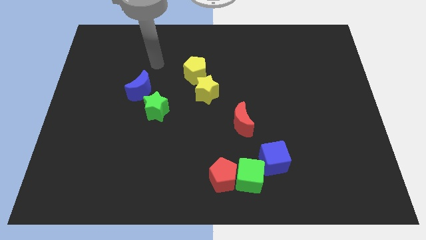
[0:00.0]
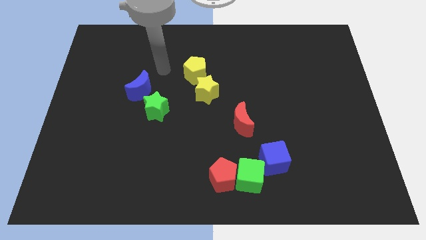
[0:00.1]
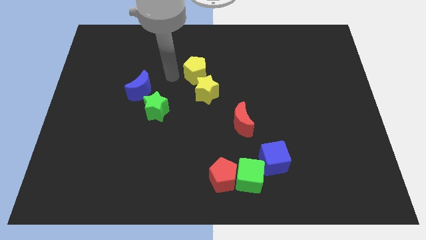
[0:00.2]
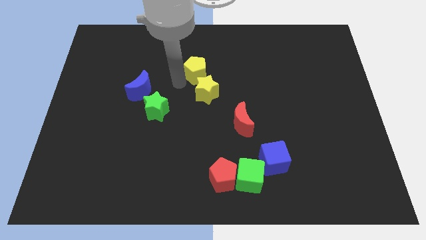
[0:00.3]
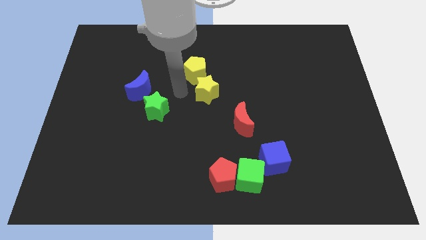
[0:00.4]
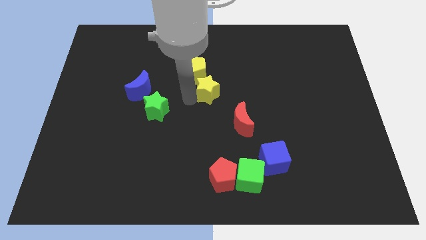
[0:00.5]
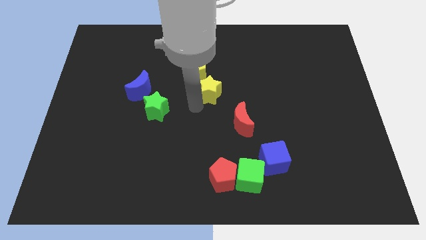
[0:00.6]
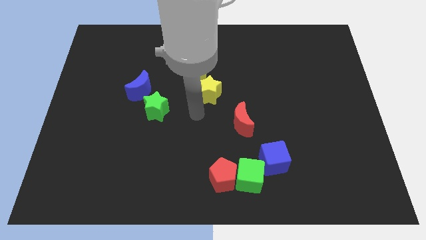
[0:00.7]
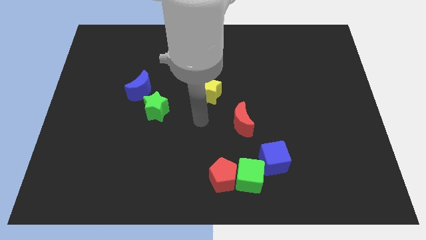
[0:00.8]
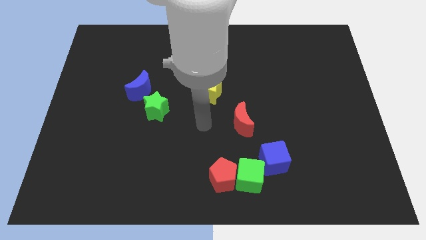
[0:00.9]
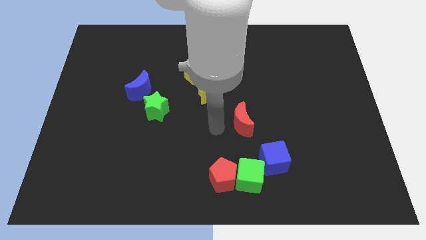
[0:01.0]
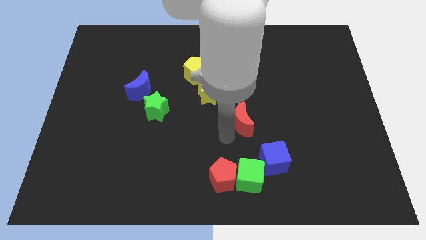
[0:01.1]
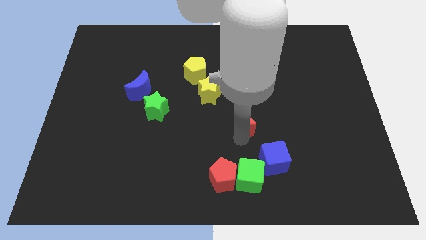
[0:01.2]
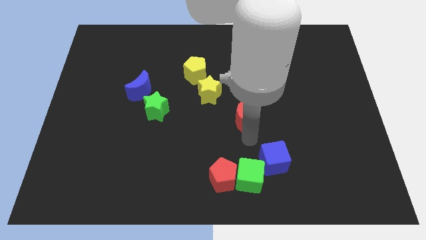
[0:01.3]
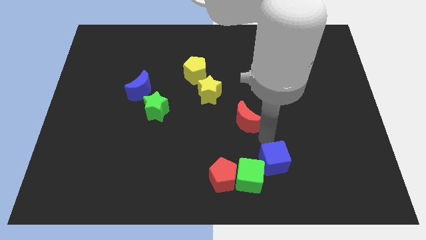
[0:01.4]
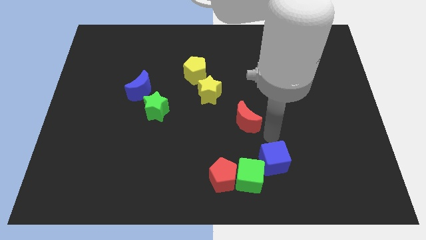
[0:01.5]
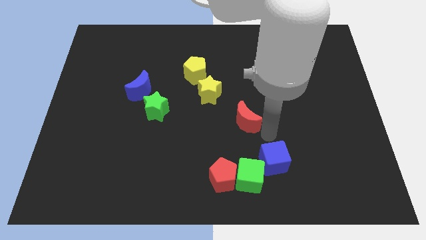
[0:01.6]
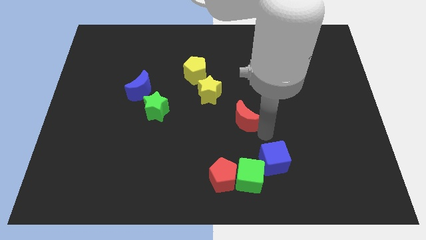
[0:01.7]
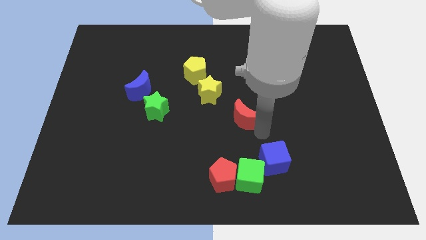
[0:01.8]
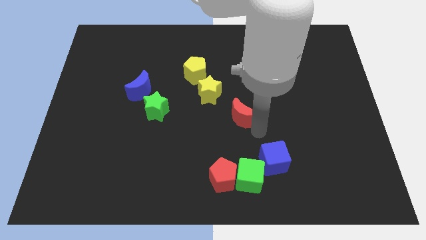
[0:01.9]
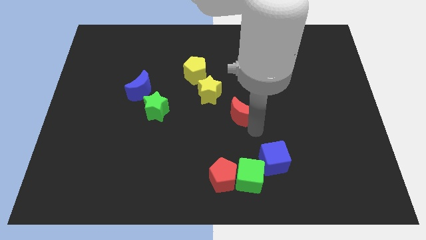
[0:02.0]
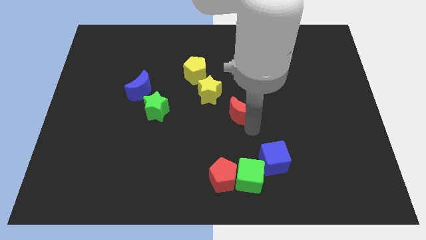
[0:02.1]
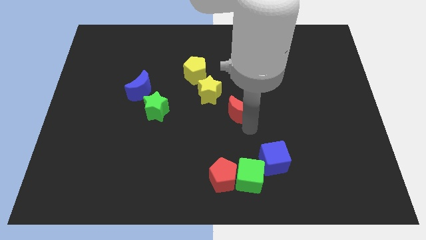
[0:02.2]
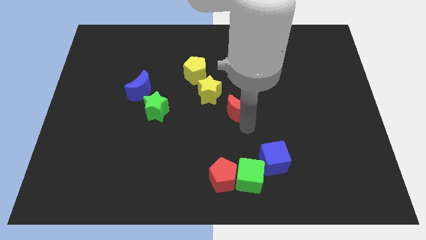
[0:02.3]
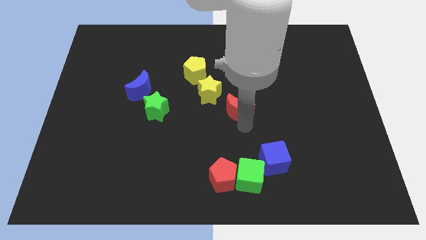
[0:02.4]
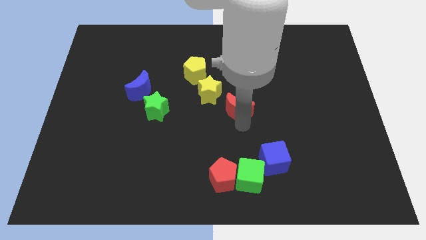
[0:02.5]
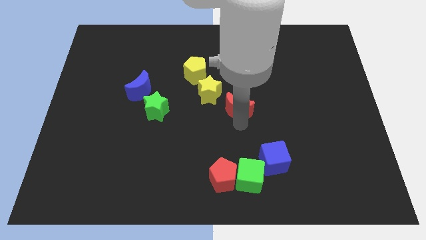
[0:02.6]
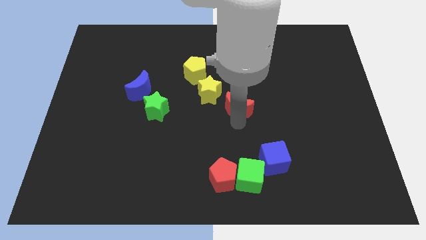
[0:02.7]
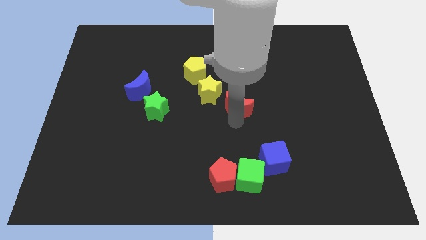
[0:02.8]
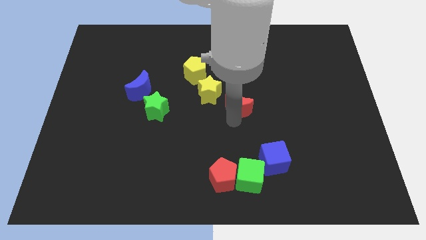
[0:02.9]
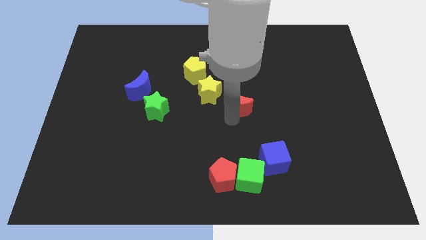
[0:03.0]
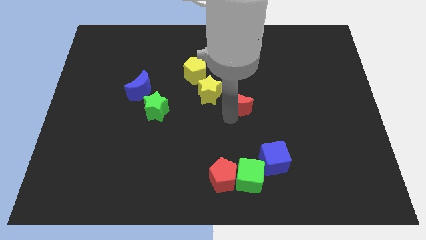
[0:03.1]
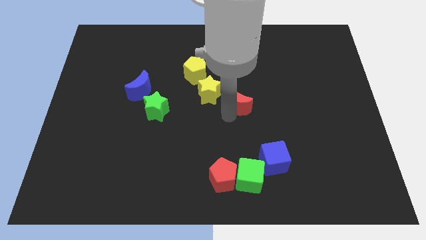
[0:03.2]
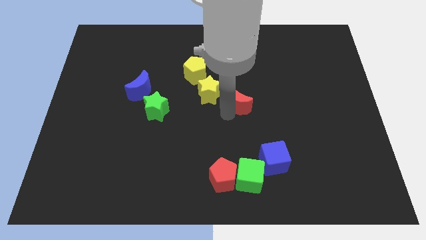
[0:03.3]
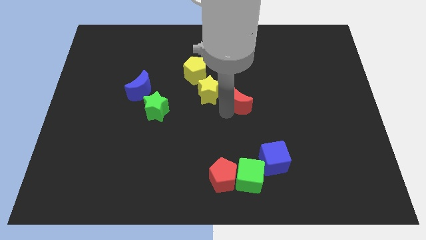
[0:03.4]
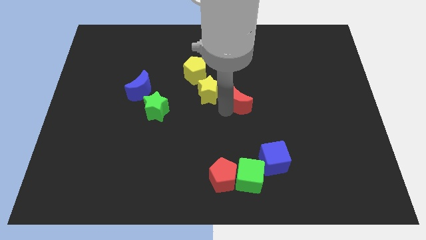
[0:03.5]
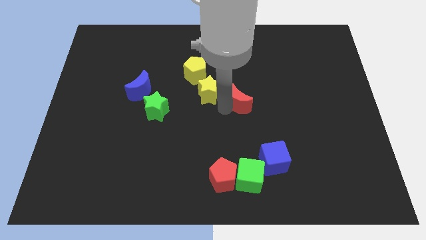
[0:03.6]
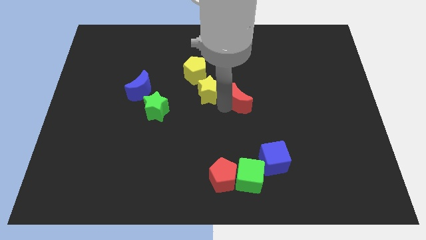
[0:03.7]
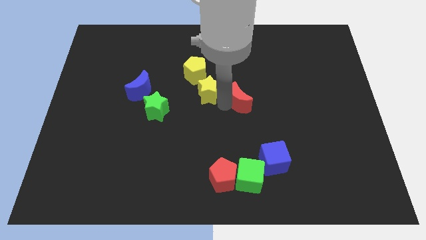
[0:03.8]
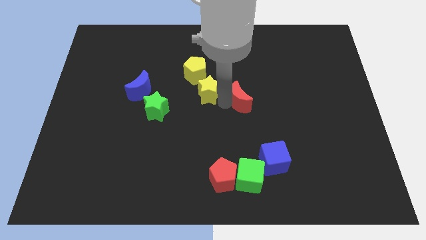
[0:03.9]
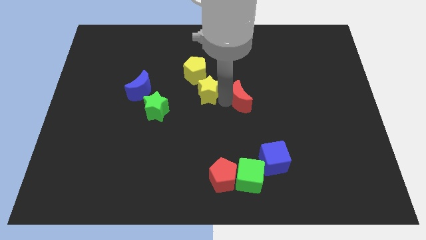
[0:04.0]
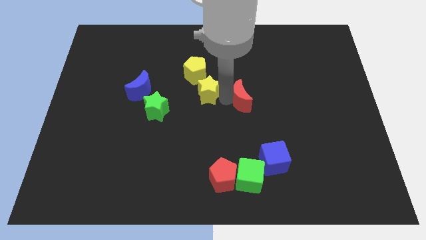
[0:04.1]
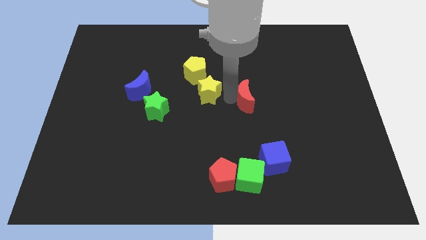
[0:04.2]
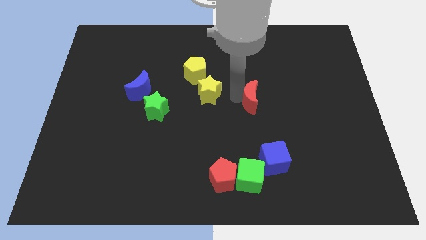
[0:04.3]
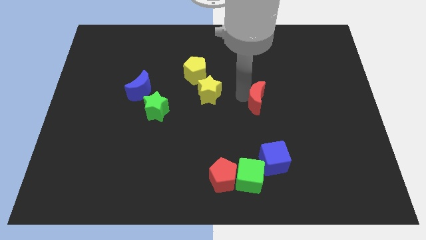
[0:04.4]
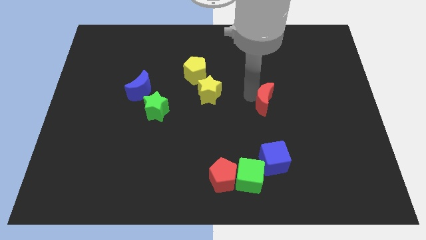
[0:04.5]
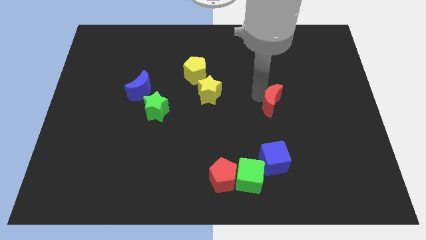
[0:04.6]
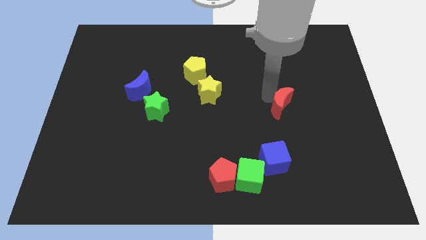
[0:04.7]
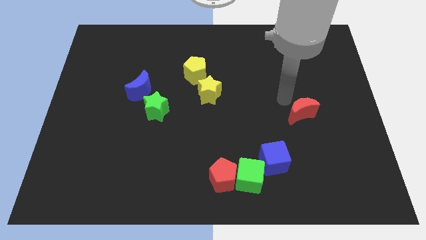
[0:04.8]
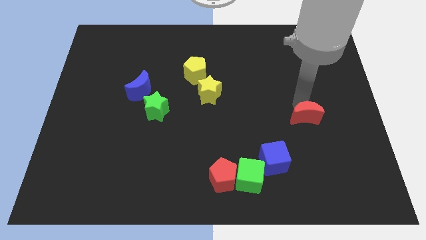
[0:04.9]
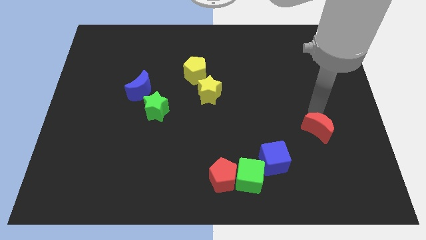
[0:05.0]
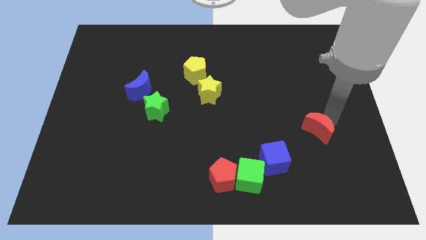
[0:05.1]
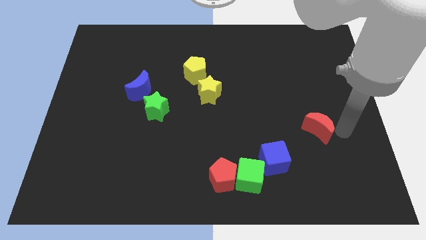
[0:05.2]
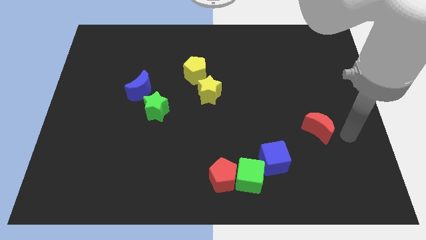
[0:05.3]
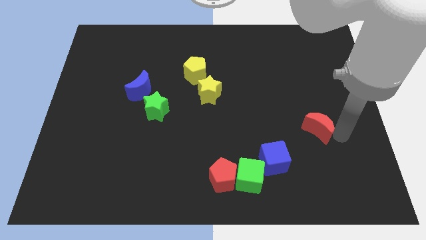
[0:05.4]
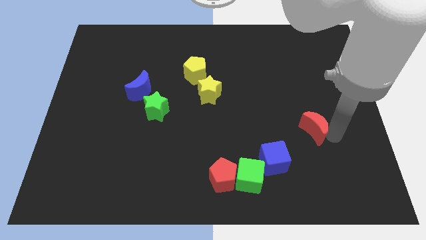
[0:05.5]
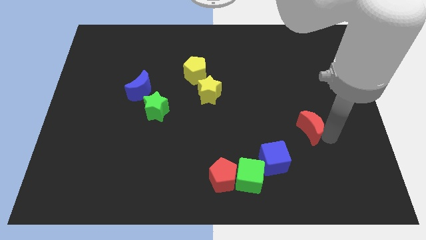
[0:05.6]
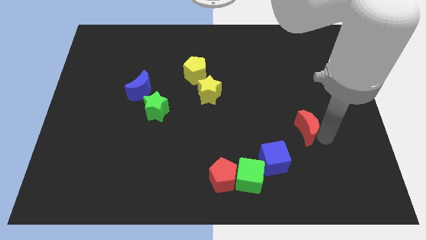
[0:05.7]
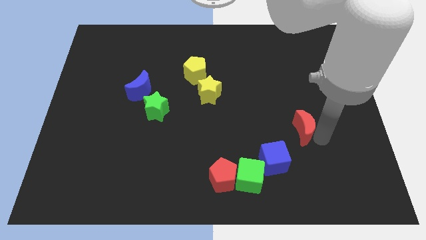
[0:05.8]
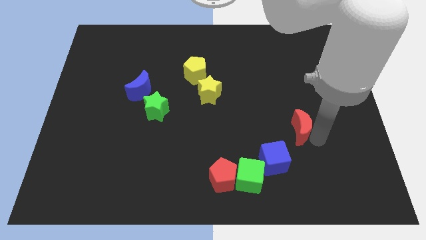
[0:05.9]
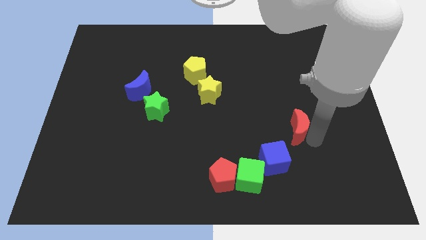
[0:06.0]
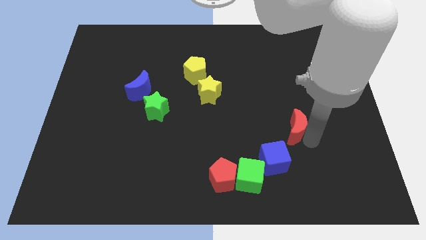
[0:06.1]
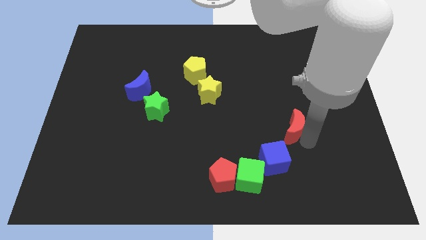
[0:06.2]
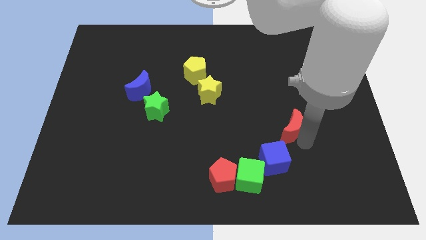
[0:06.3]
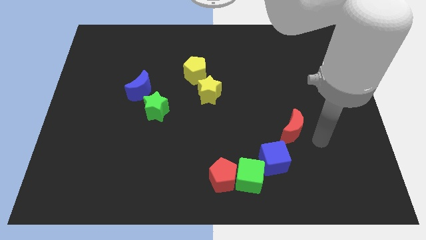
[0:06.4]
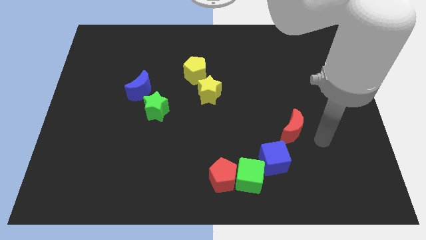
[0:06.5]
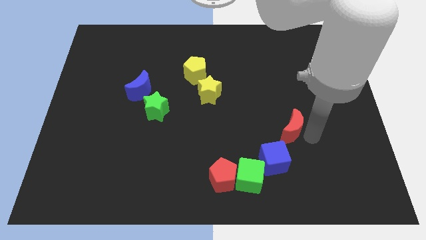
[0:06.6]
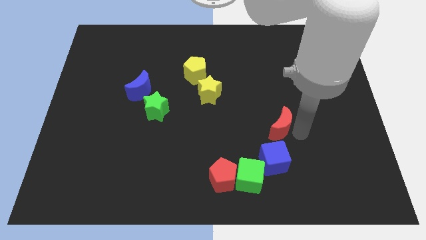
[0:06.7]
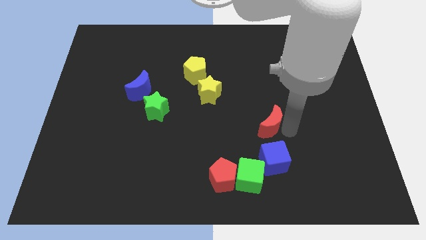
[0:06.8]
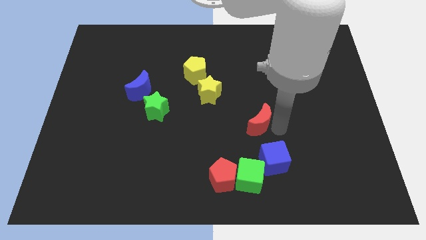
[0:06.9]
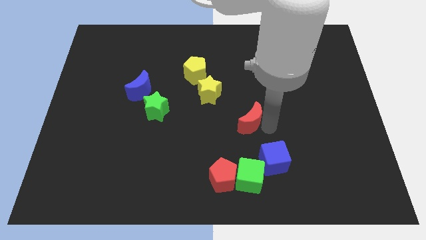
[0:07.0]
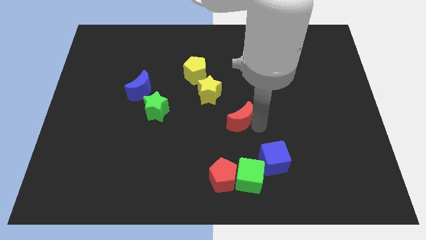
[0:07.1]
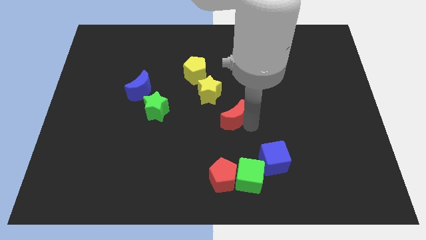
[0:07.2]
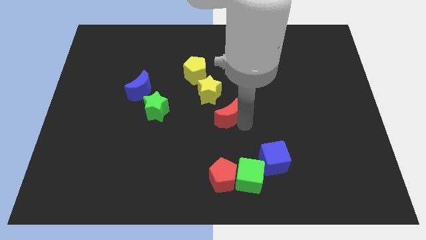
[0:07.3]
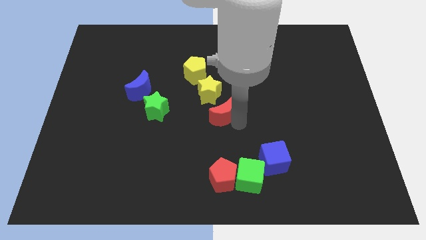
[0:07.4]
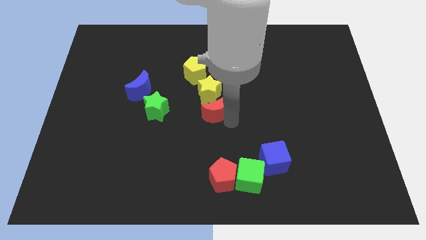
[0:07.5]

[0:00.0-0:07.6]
push the red moon close to the yellow star
